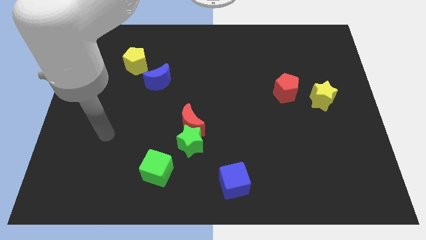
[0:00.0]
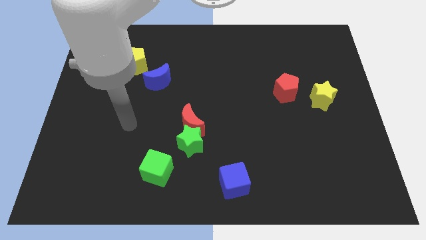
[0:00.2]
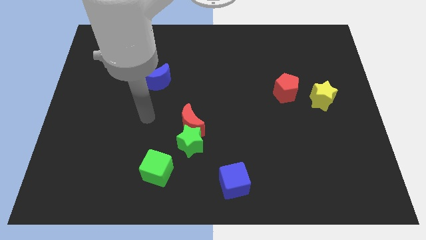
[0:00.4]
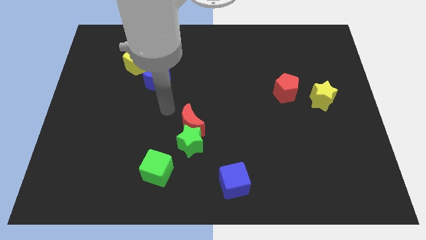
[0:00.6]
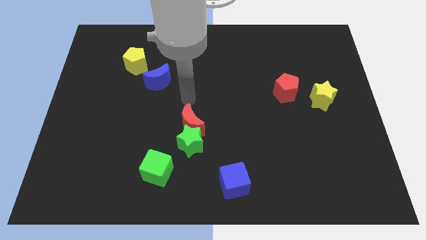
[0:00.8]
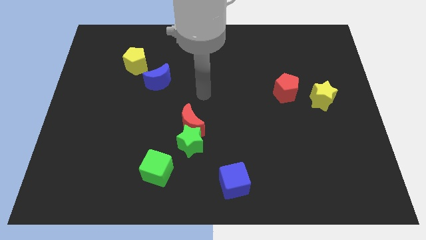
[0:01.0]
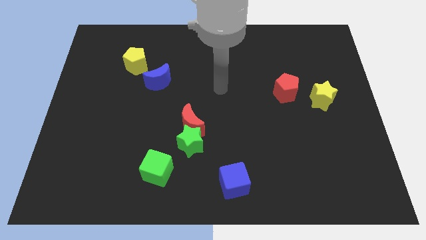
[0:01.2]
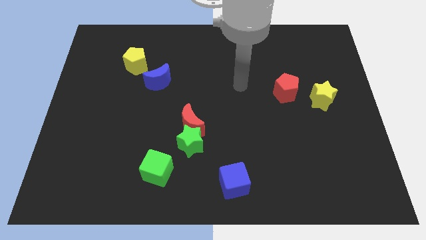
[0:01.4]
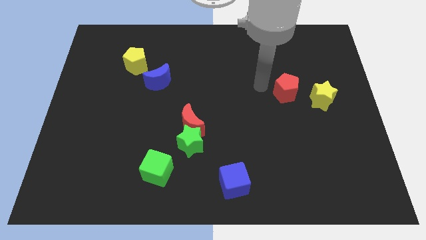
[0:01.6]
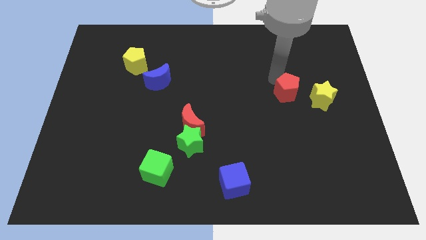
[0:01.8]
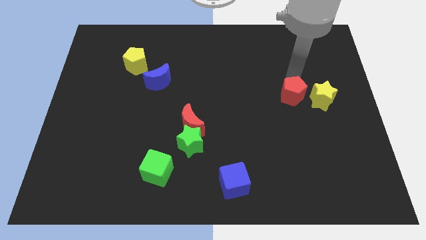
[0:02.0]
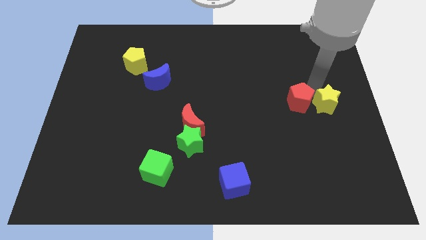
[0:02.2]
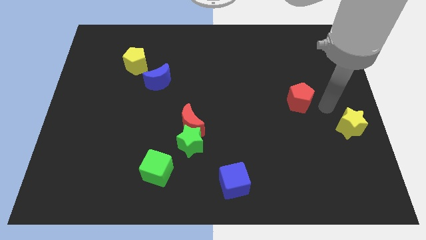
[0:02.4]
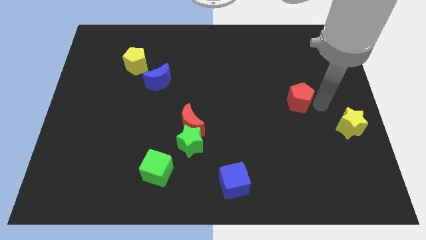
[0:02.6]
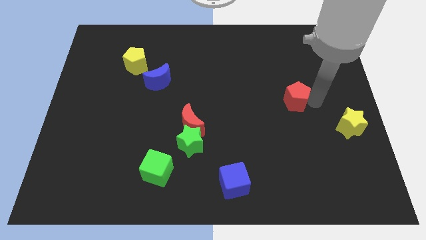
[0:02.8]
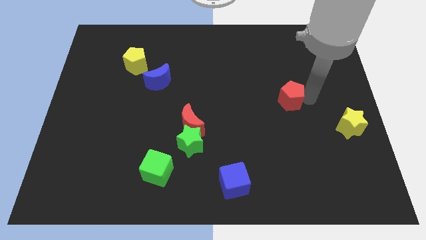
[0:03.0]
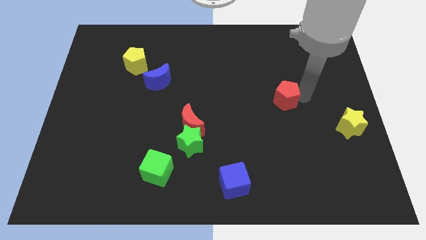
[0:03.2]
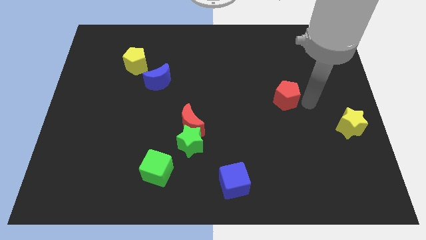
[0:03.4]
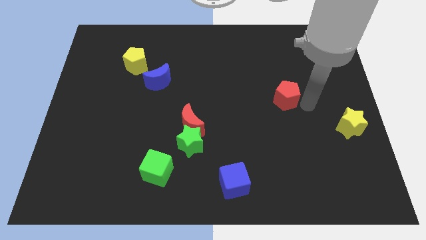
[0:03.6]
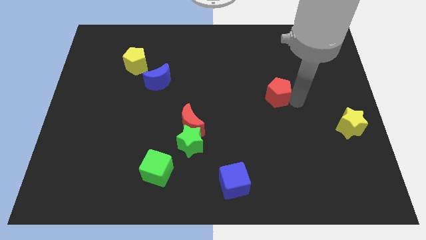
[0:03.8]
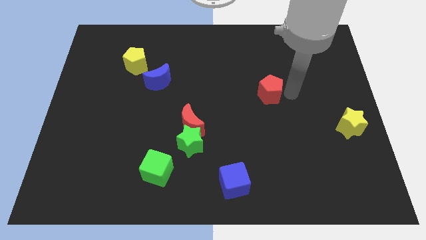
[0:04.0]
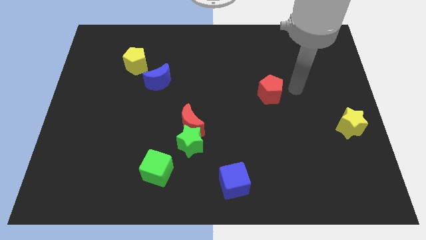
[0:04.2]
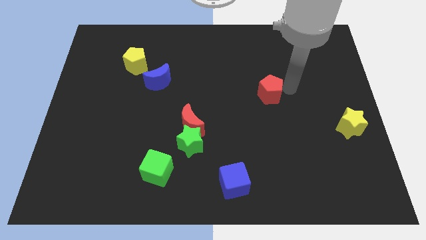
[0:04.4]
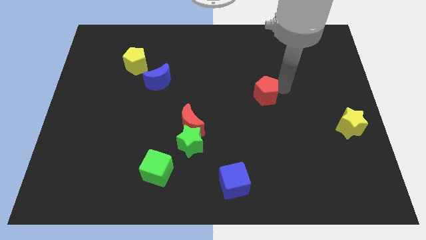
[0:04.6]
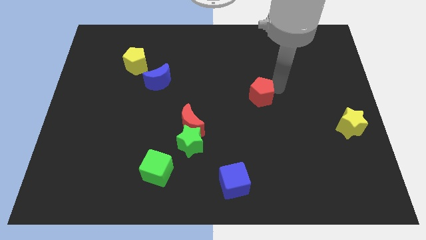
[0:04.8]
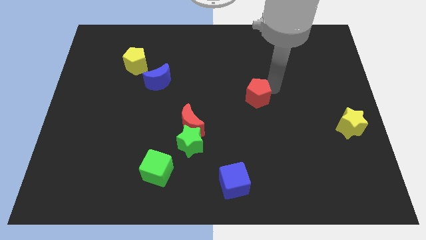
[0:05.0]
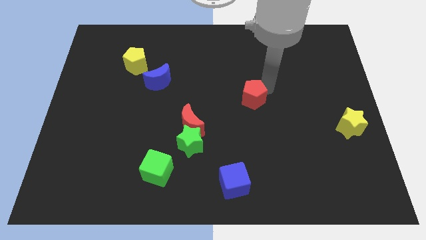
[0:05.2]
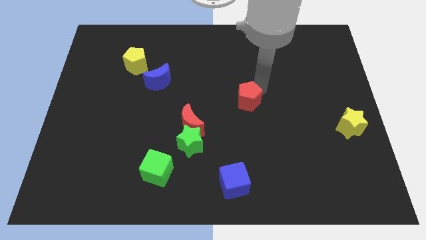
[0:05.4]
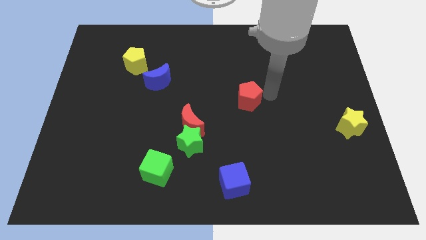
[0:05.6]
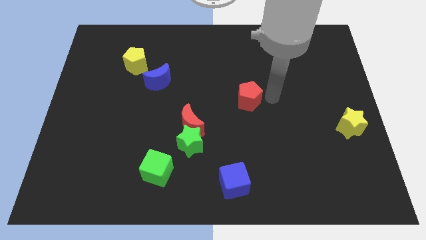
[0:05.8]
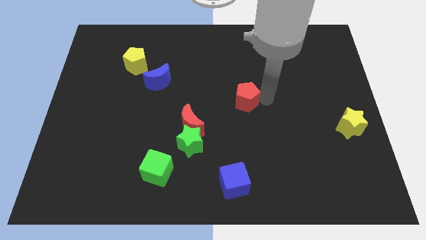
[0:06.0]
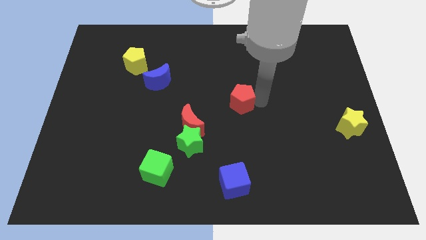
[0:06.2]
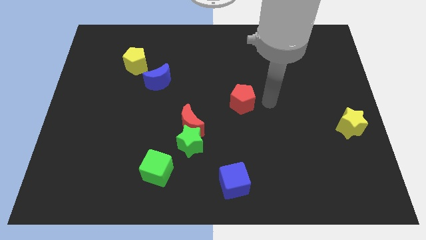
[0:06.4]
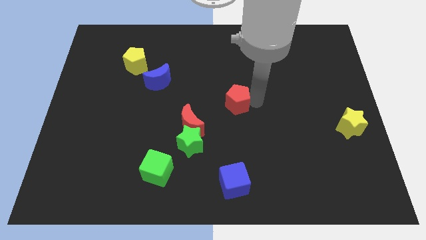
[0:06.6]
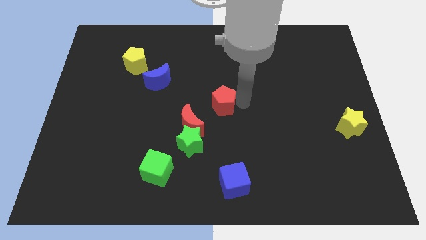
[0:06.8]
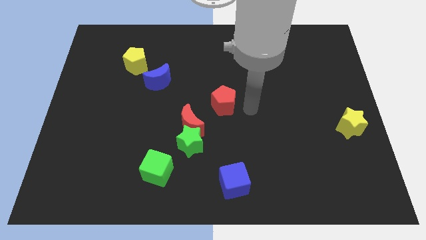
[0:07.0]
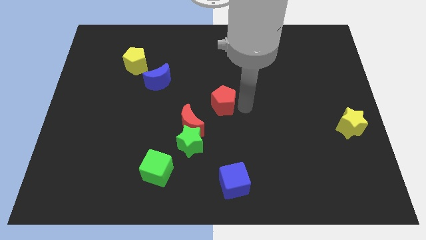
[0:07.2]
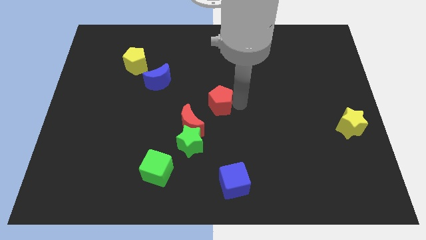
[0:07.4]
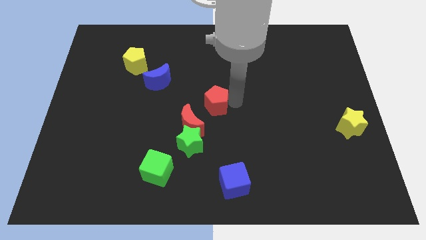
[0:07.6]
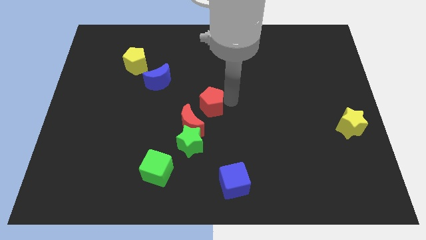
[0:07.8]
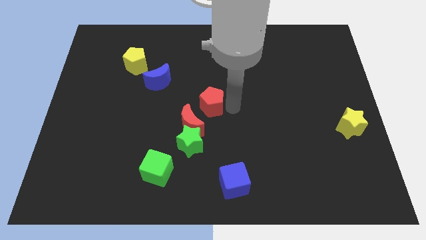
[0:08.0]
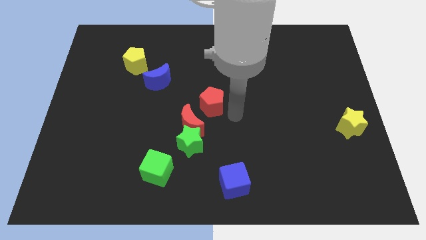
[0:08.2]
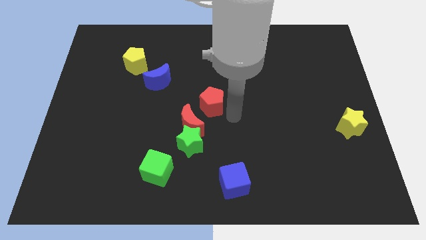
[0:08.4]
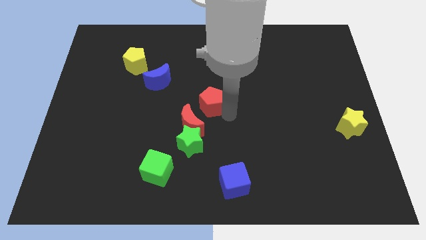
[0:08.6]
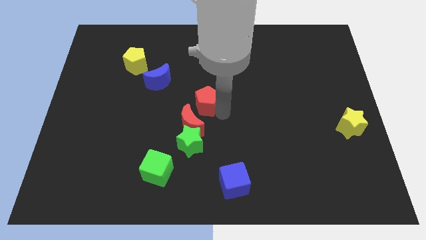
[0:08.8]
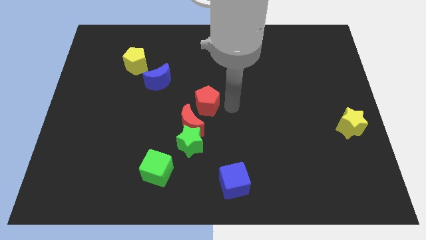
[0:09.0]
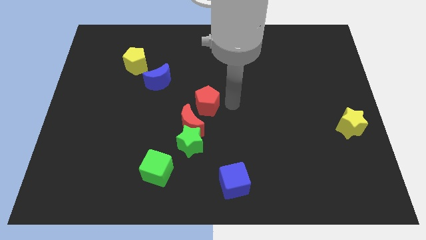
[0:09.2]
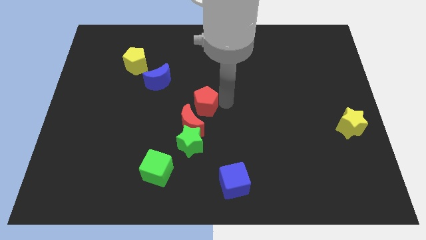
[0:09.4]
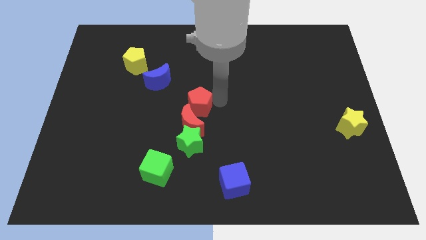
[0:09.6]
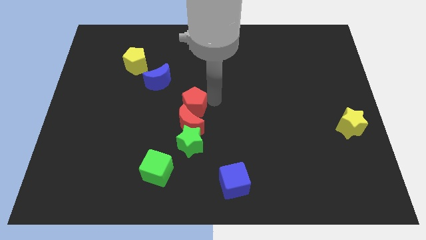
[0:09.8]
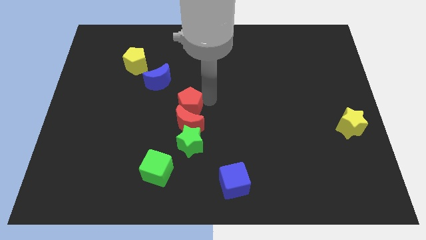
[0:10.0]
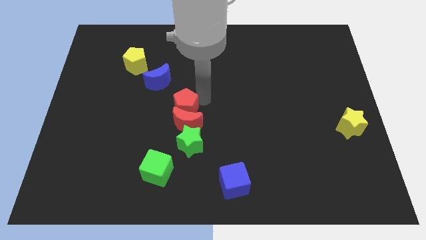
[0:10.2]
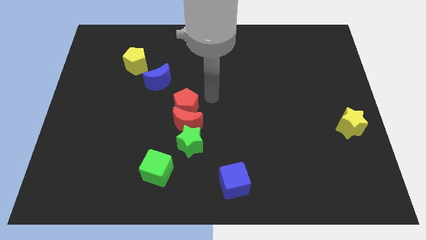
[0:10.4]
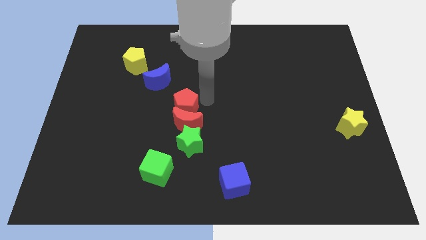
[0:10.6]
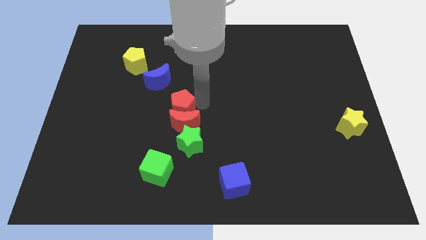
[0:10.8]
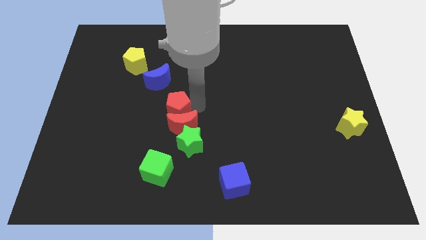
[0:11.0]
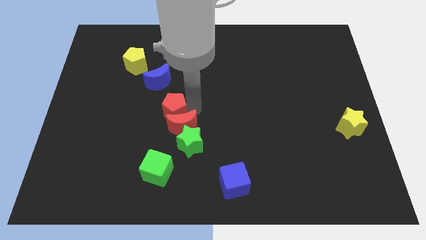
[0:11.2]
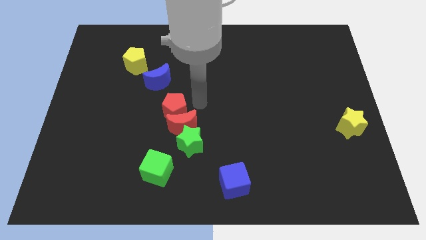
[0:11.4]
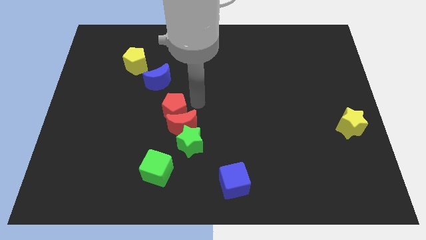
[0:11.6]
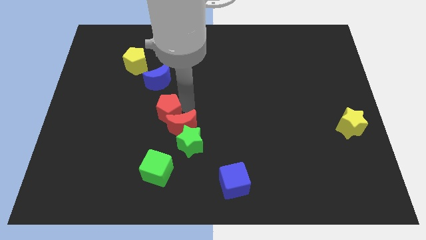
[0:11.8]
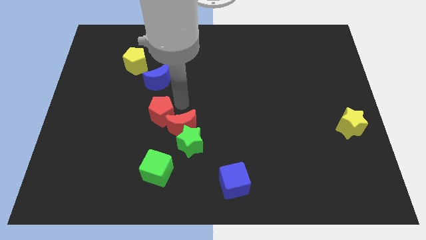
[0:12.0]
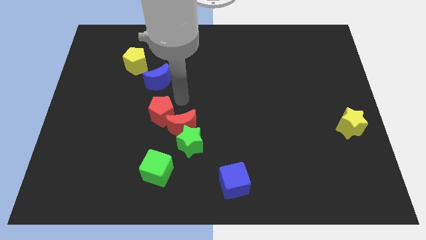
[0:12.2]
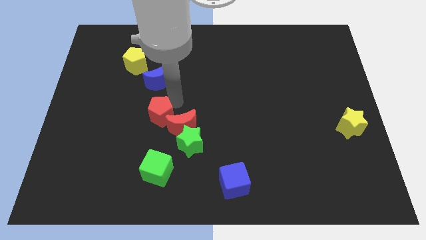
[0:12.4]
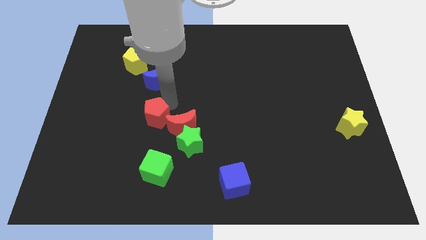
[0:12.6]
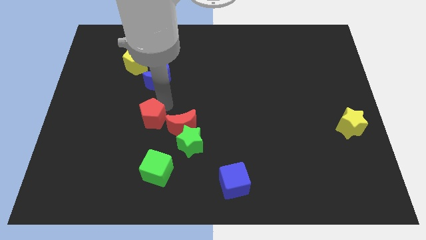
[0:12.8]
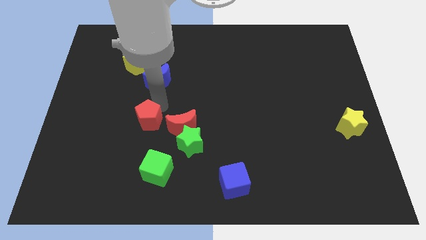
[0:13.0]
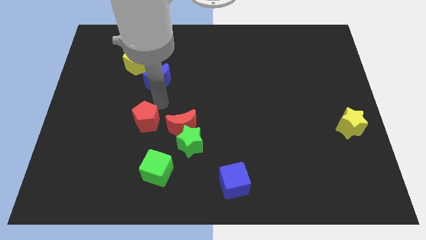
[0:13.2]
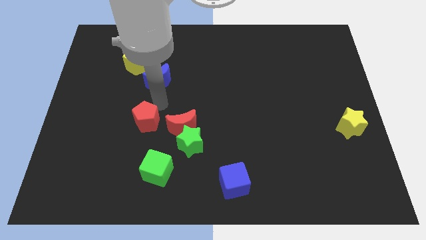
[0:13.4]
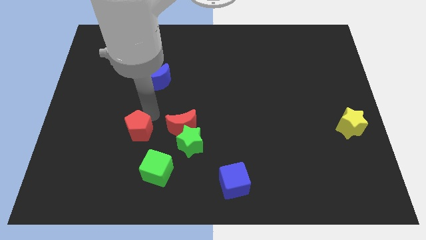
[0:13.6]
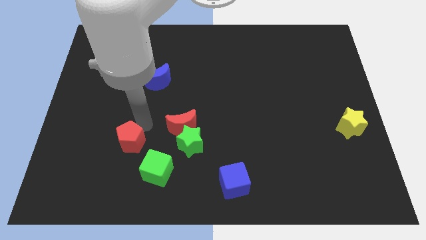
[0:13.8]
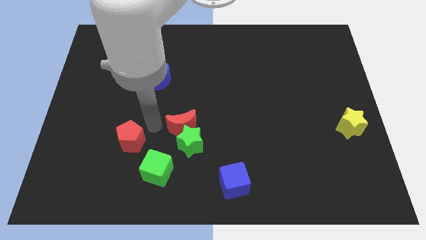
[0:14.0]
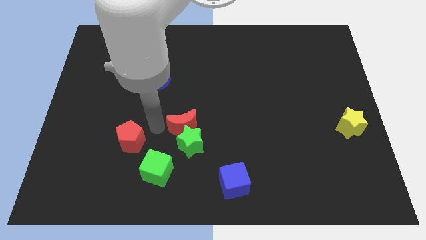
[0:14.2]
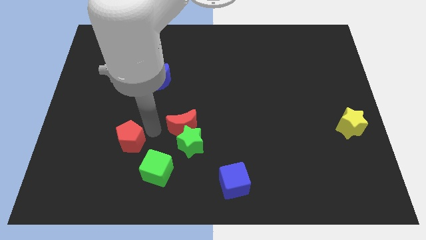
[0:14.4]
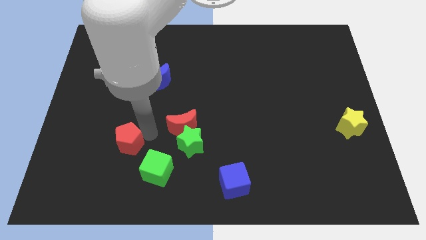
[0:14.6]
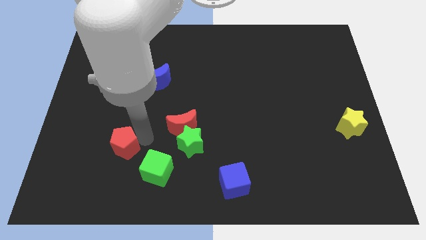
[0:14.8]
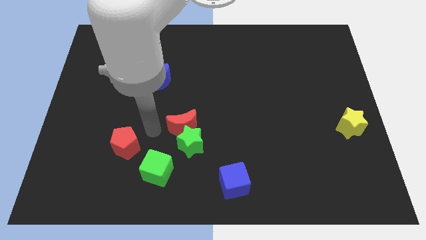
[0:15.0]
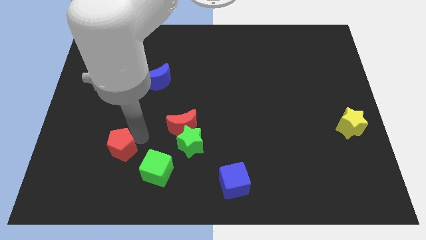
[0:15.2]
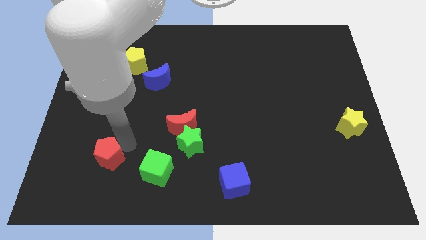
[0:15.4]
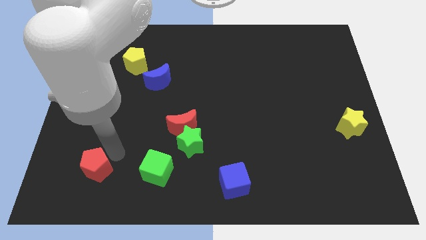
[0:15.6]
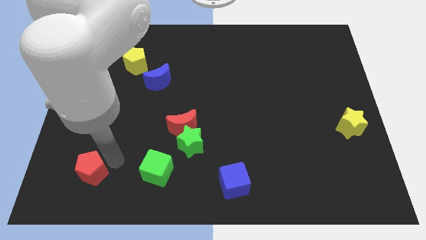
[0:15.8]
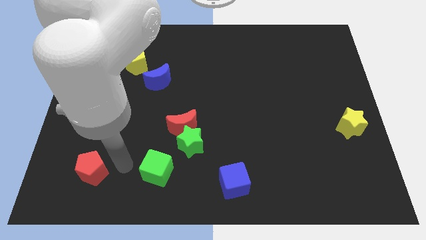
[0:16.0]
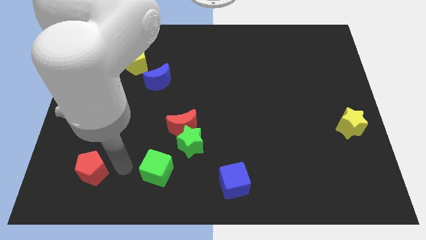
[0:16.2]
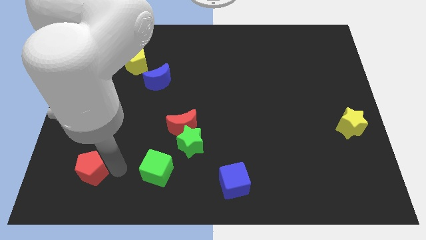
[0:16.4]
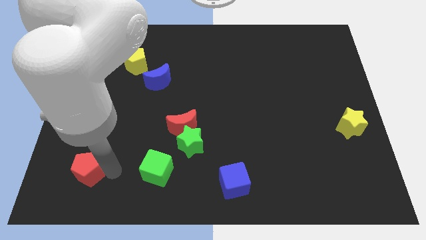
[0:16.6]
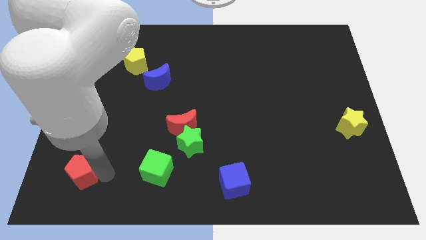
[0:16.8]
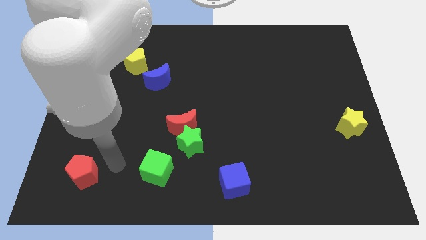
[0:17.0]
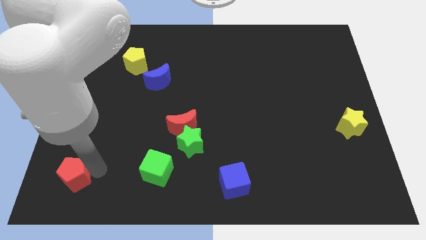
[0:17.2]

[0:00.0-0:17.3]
move the red pentagon to the bottom left
